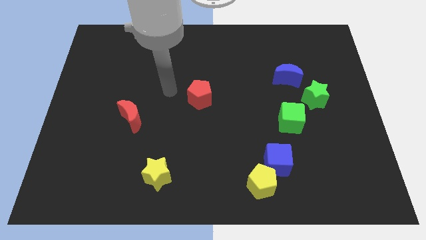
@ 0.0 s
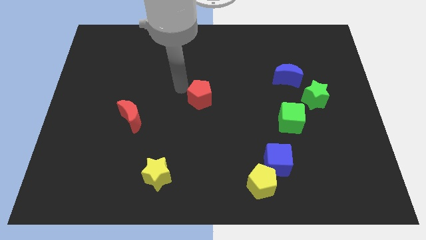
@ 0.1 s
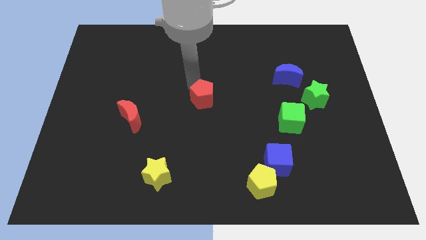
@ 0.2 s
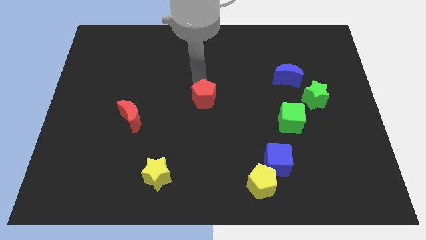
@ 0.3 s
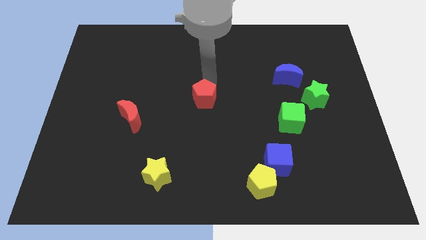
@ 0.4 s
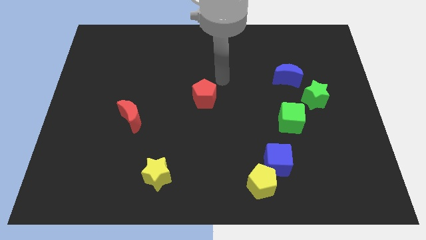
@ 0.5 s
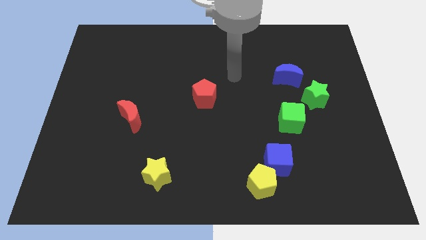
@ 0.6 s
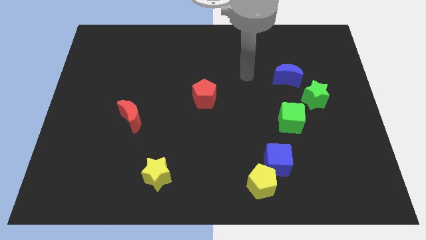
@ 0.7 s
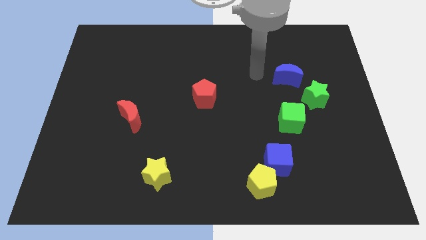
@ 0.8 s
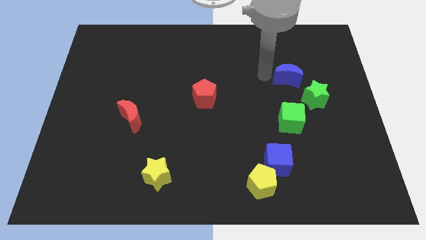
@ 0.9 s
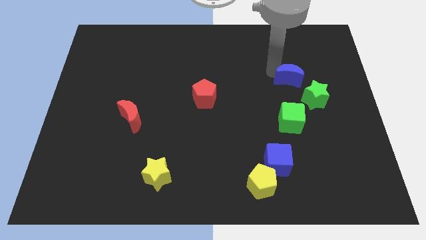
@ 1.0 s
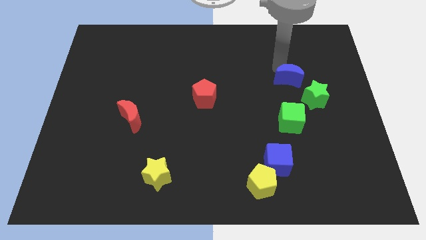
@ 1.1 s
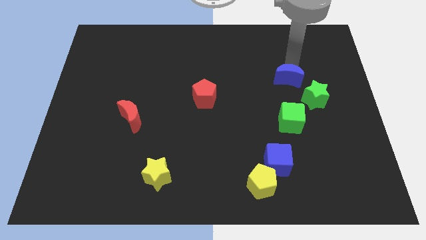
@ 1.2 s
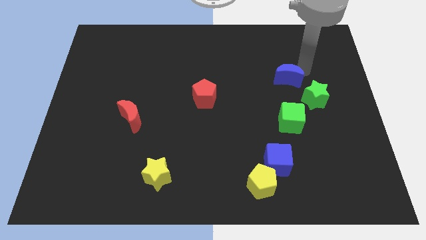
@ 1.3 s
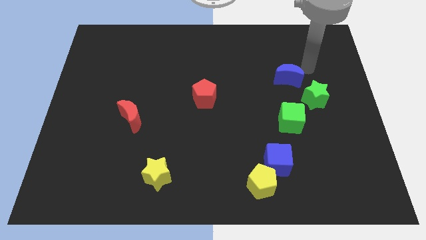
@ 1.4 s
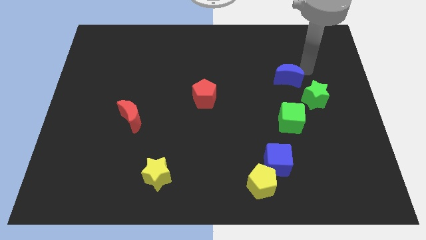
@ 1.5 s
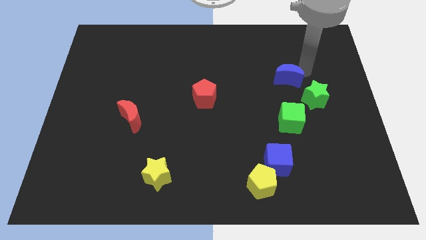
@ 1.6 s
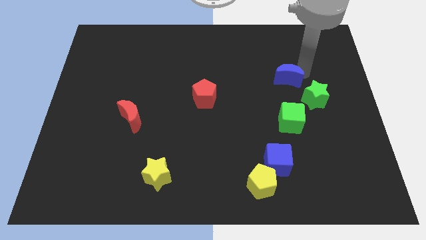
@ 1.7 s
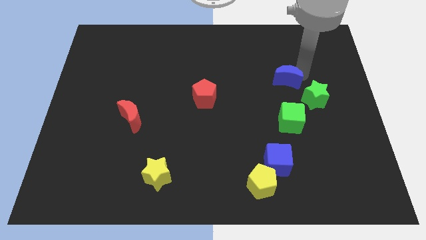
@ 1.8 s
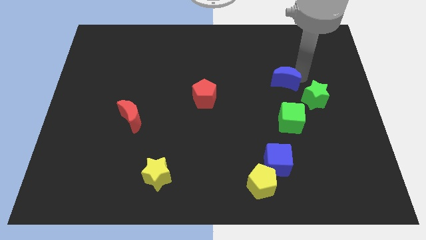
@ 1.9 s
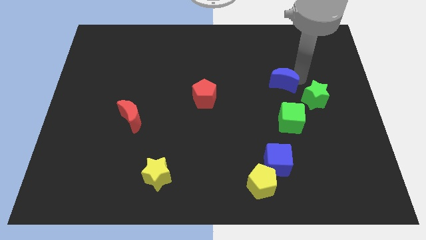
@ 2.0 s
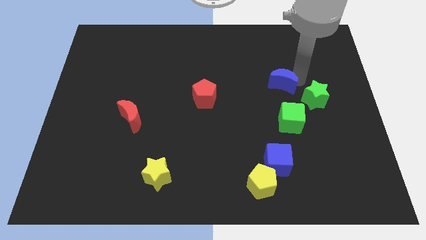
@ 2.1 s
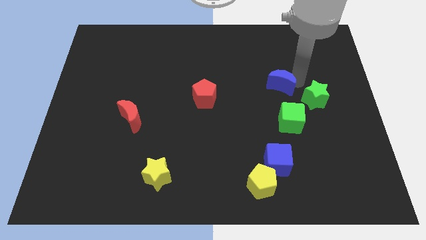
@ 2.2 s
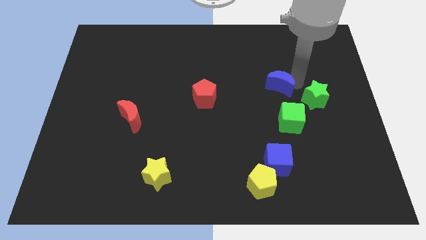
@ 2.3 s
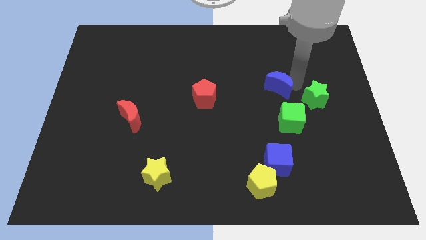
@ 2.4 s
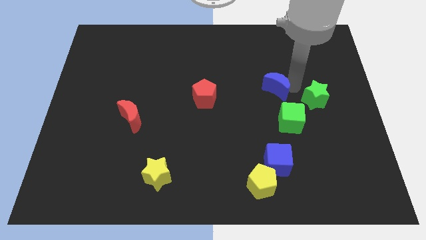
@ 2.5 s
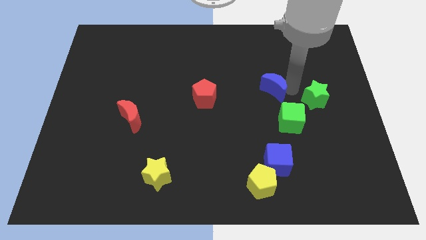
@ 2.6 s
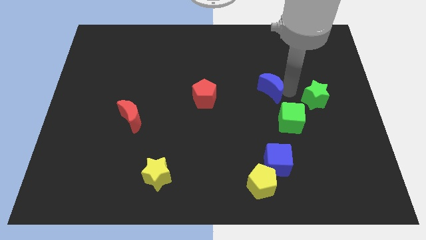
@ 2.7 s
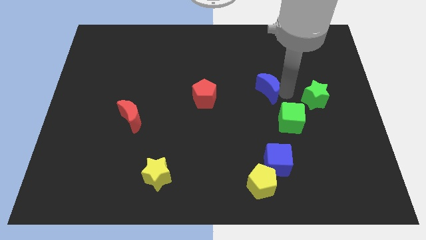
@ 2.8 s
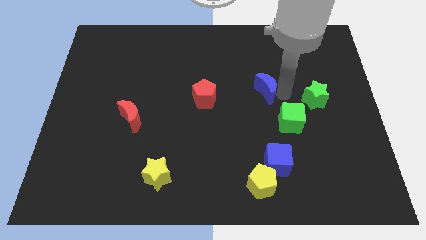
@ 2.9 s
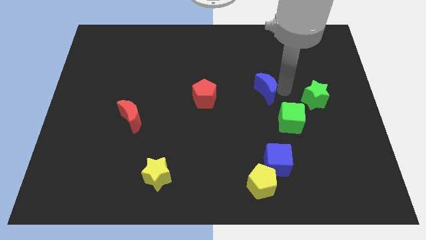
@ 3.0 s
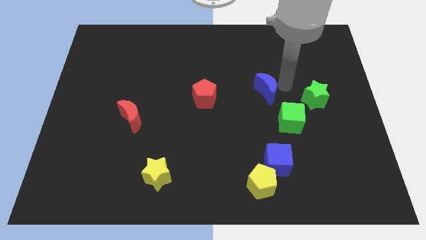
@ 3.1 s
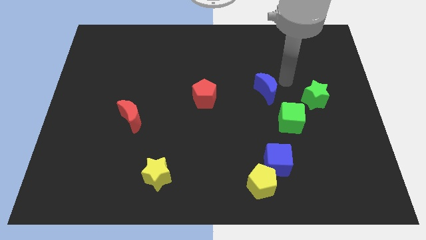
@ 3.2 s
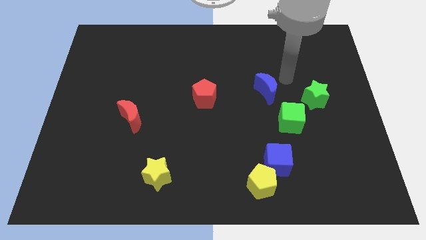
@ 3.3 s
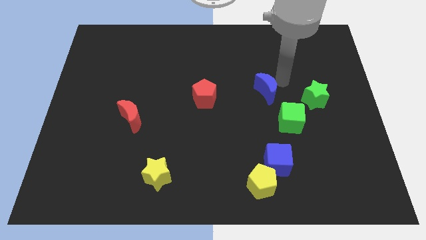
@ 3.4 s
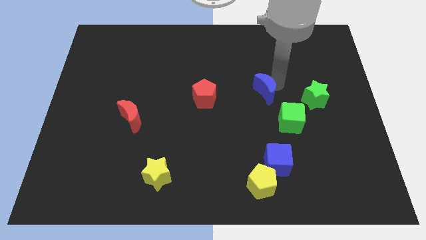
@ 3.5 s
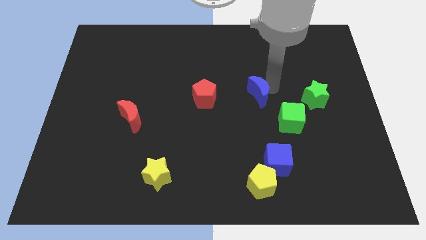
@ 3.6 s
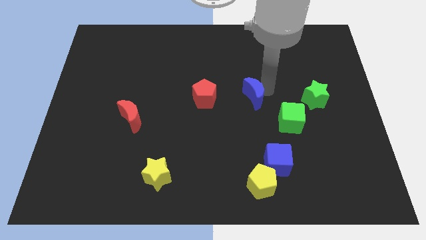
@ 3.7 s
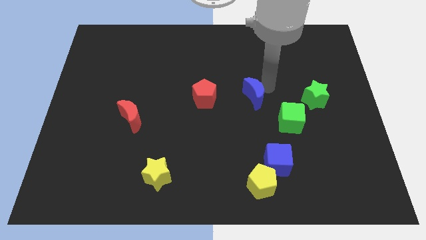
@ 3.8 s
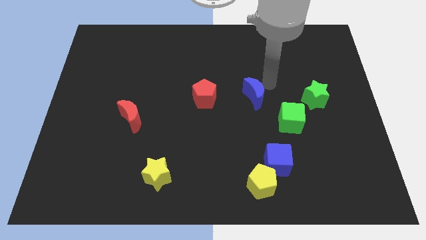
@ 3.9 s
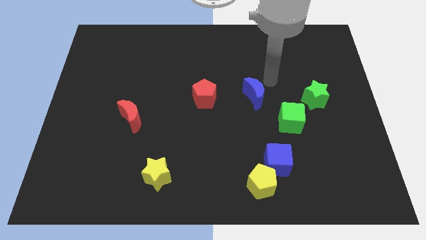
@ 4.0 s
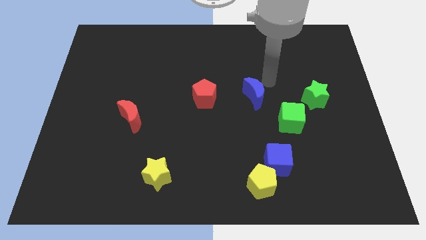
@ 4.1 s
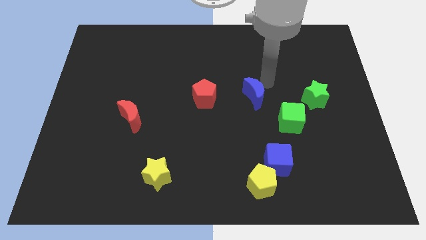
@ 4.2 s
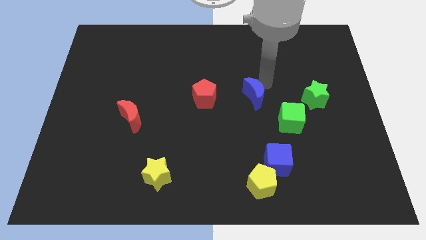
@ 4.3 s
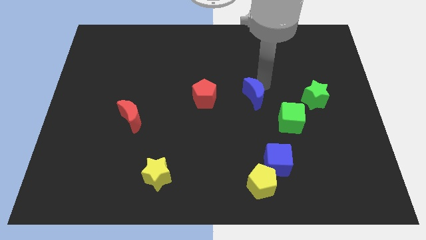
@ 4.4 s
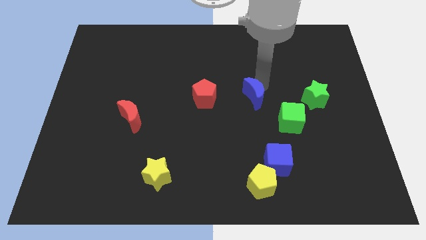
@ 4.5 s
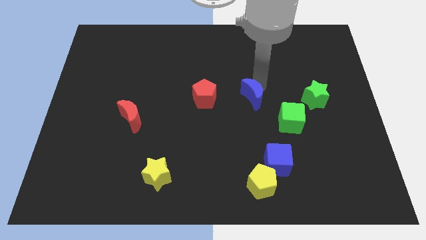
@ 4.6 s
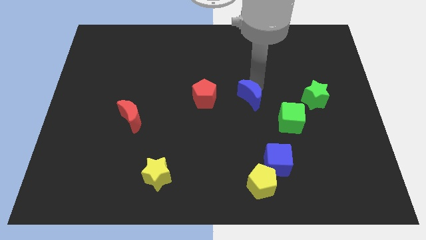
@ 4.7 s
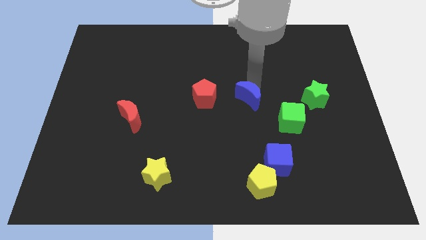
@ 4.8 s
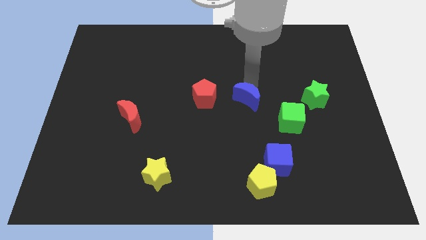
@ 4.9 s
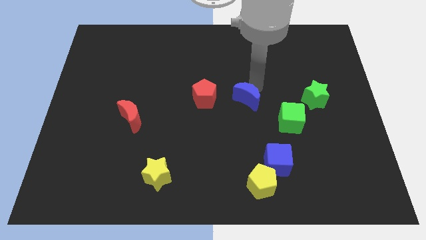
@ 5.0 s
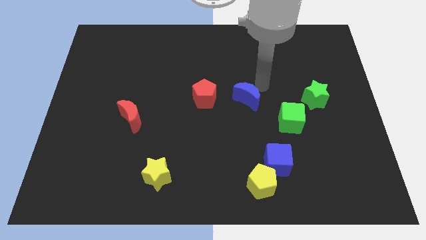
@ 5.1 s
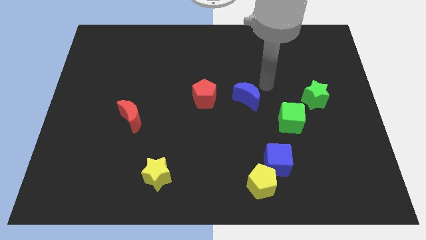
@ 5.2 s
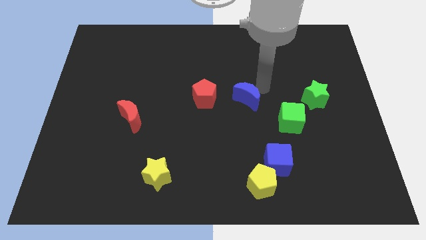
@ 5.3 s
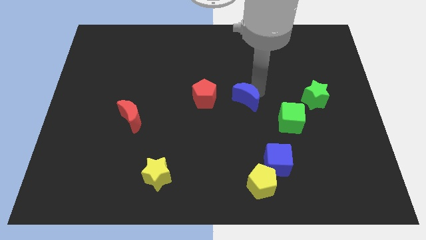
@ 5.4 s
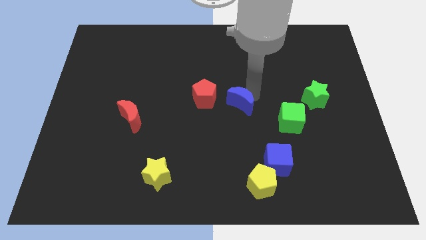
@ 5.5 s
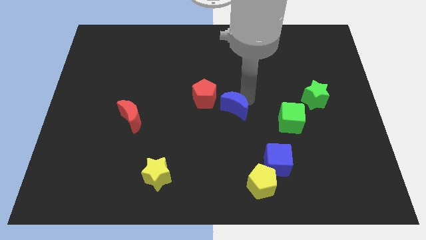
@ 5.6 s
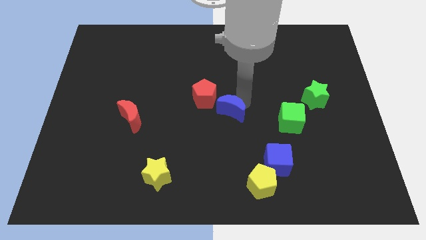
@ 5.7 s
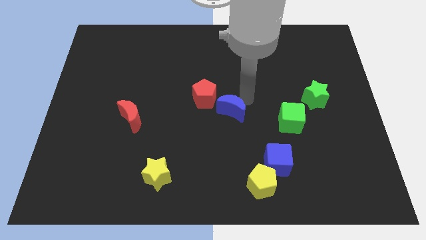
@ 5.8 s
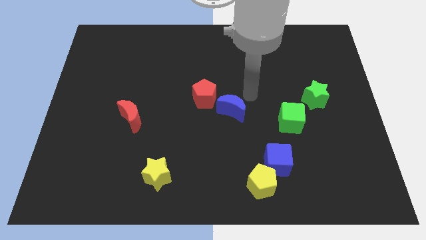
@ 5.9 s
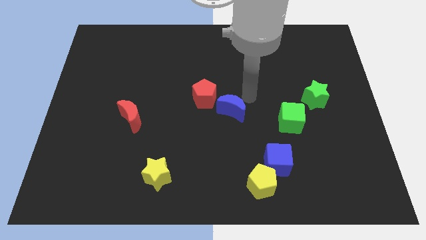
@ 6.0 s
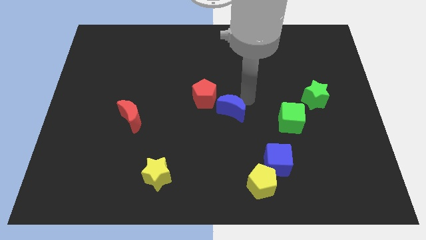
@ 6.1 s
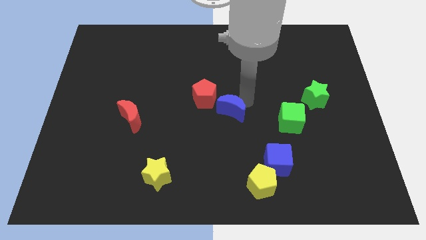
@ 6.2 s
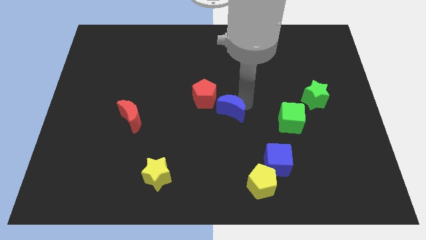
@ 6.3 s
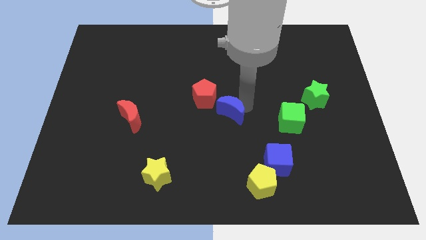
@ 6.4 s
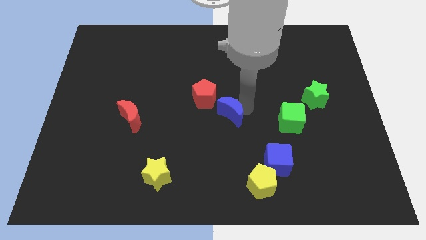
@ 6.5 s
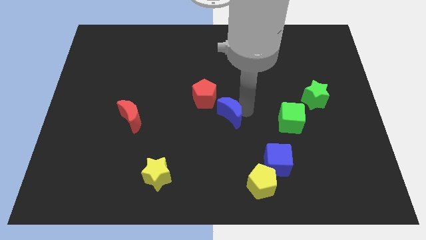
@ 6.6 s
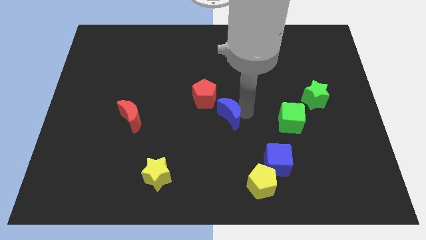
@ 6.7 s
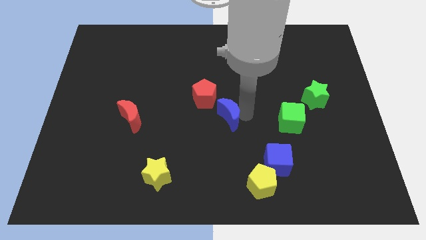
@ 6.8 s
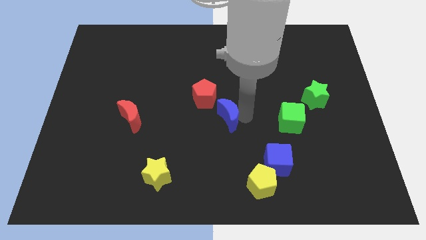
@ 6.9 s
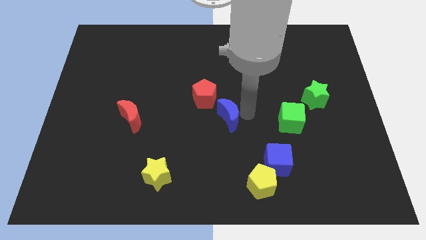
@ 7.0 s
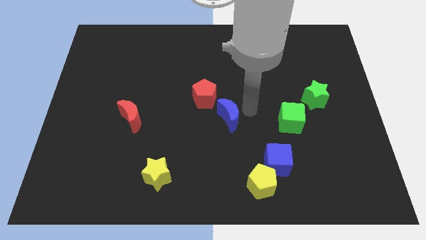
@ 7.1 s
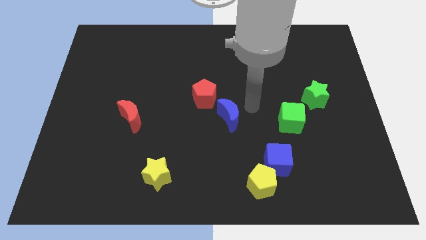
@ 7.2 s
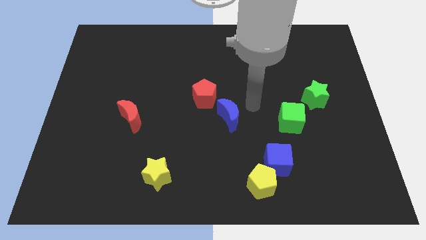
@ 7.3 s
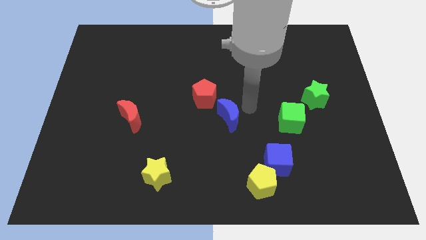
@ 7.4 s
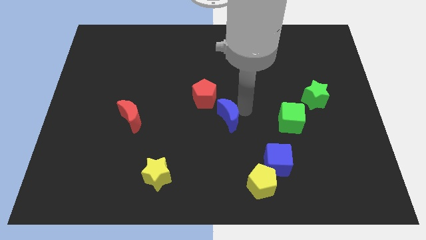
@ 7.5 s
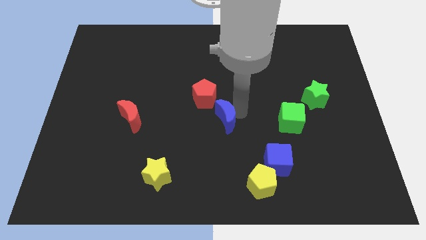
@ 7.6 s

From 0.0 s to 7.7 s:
move the blue moon down and to the left diagonally
